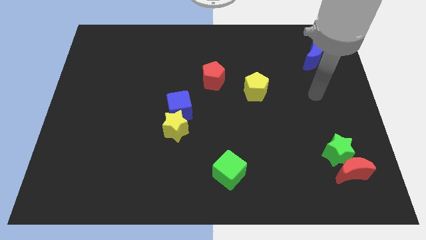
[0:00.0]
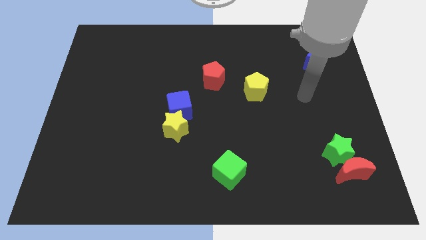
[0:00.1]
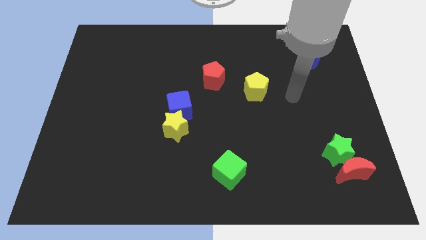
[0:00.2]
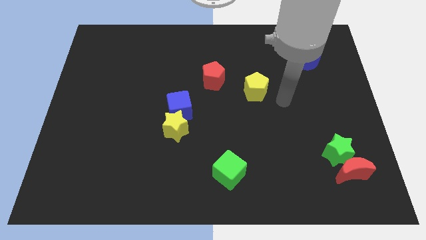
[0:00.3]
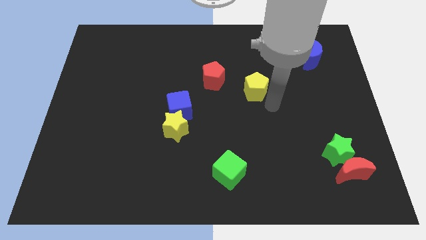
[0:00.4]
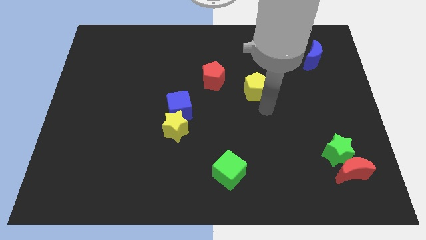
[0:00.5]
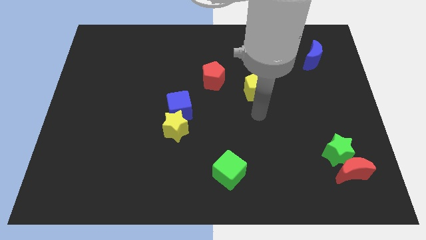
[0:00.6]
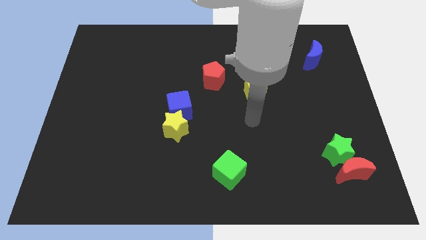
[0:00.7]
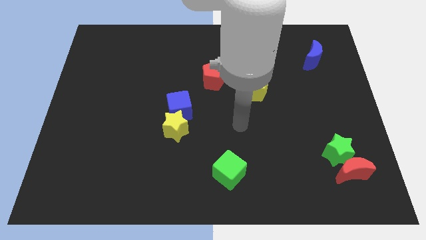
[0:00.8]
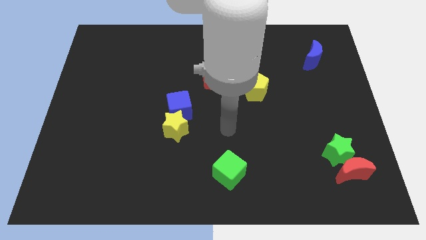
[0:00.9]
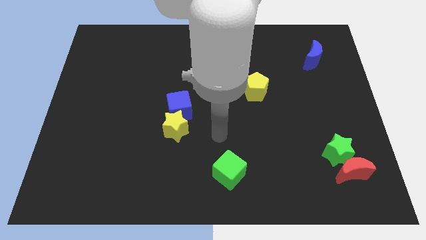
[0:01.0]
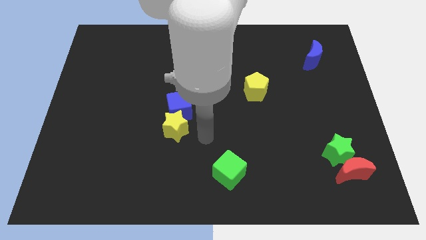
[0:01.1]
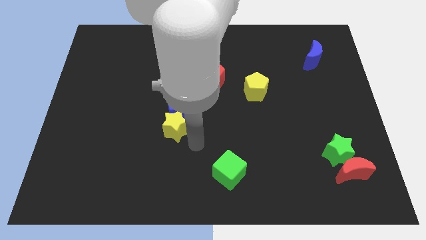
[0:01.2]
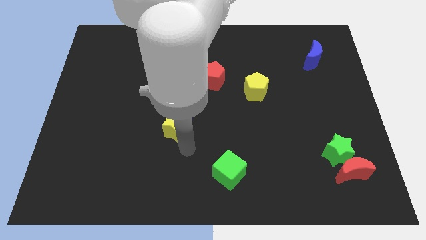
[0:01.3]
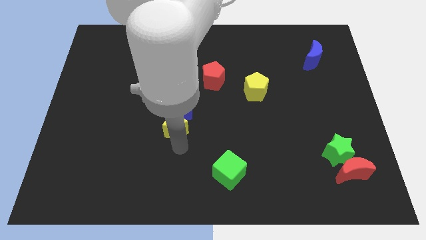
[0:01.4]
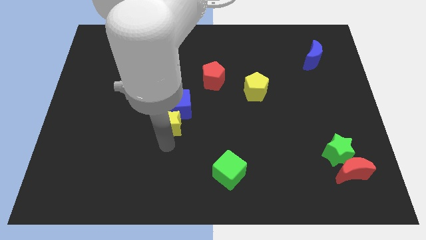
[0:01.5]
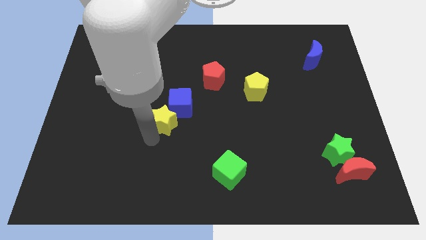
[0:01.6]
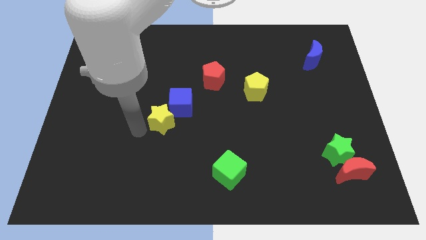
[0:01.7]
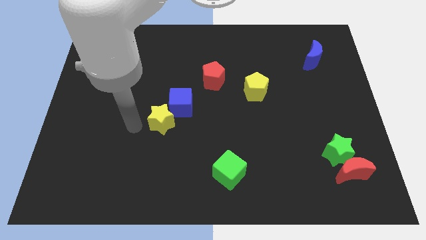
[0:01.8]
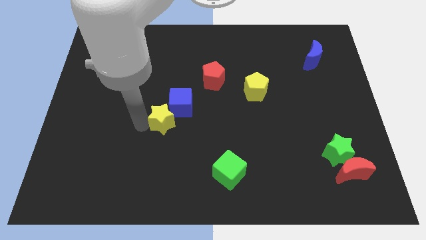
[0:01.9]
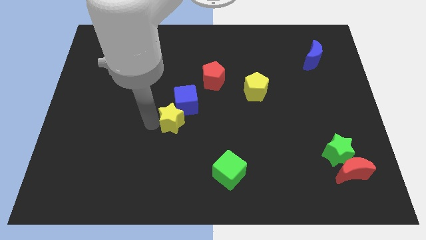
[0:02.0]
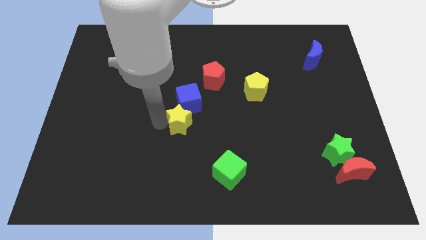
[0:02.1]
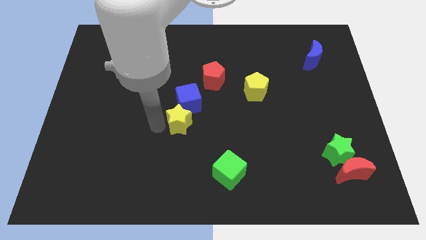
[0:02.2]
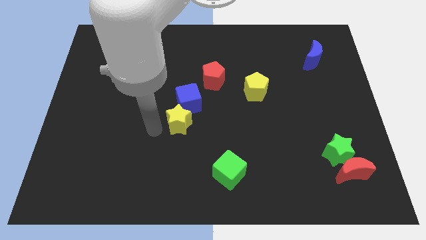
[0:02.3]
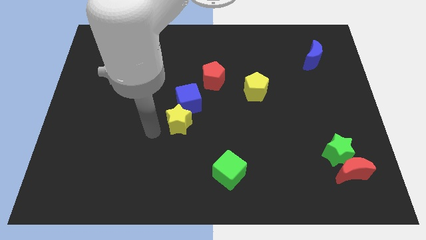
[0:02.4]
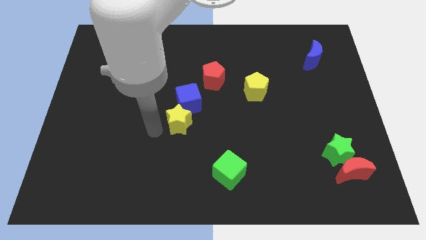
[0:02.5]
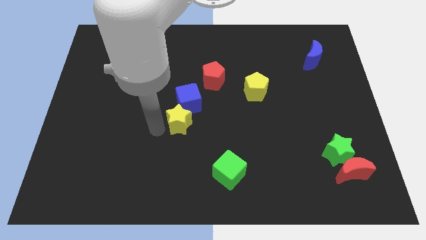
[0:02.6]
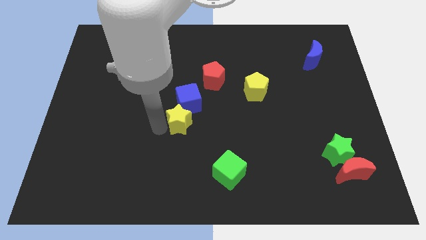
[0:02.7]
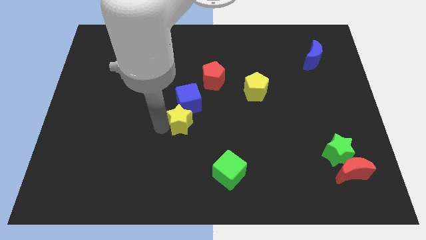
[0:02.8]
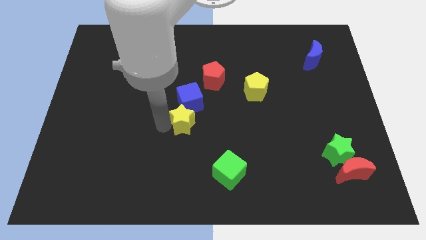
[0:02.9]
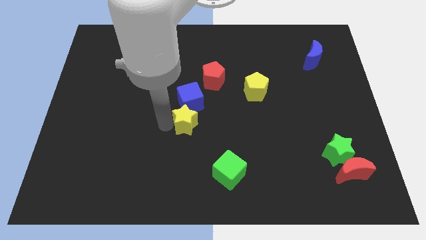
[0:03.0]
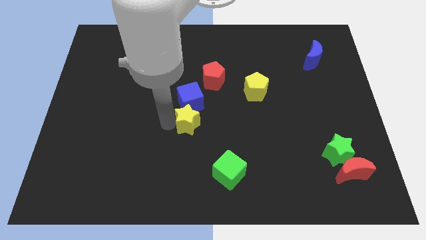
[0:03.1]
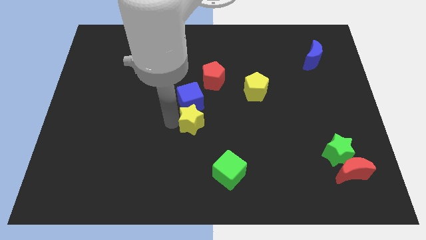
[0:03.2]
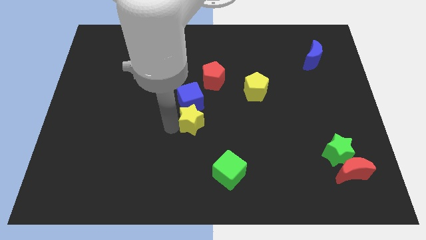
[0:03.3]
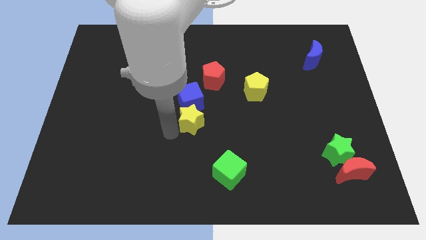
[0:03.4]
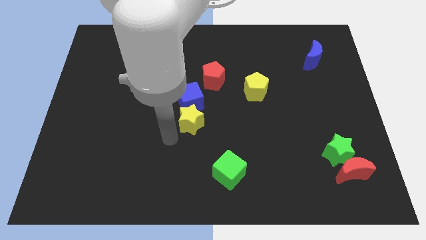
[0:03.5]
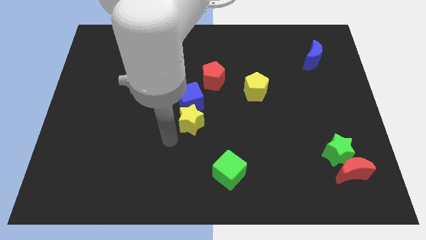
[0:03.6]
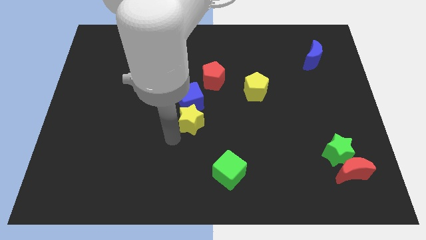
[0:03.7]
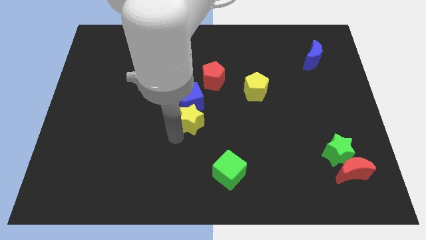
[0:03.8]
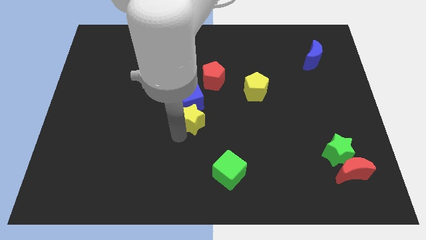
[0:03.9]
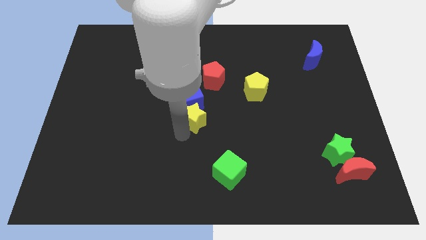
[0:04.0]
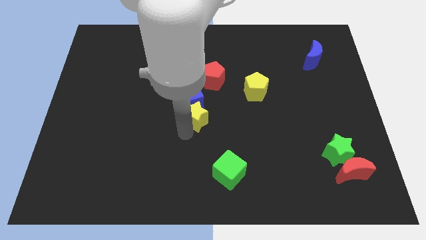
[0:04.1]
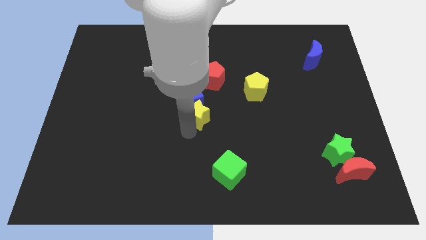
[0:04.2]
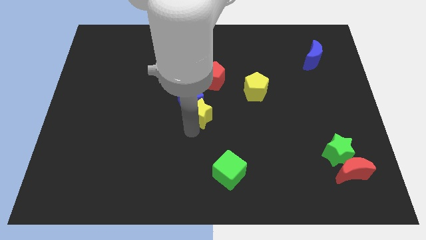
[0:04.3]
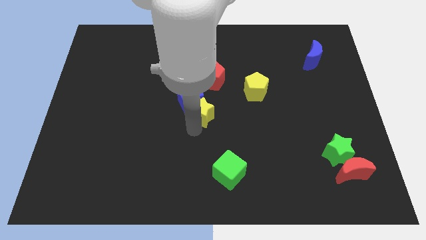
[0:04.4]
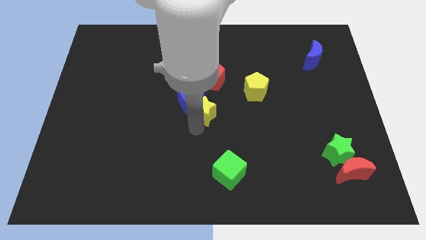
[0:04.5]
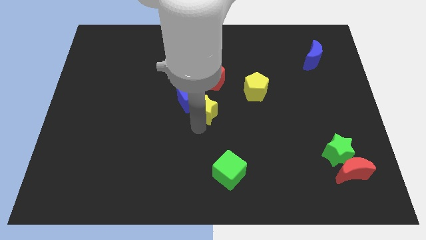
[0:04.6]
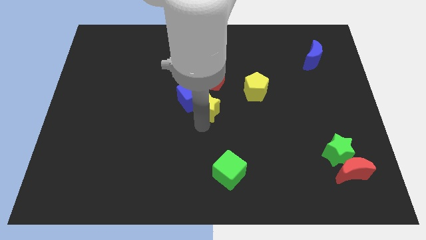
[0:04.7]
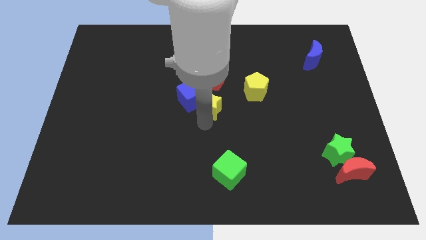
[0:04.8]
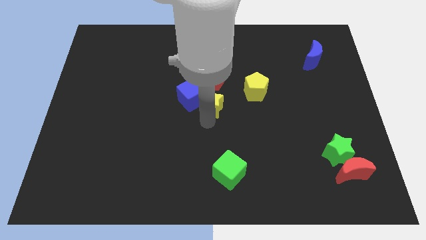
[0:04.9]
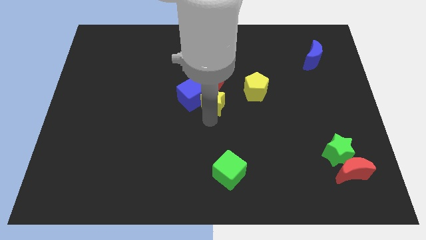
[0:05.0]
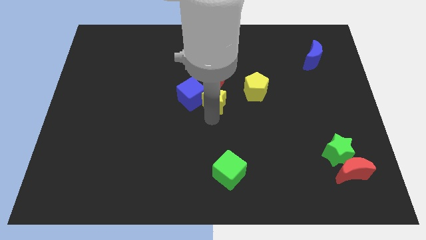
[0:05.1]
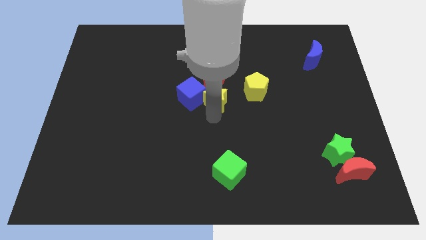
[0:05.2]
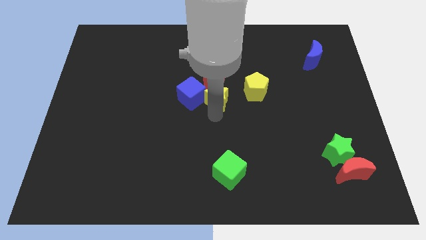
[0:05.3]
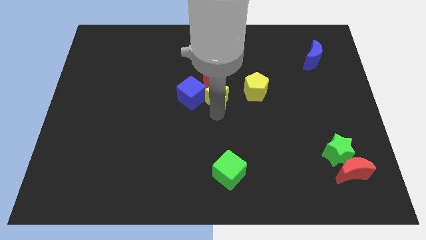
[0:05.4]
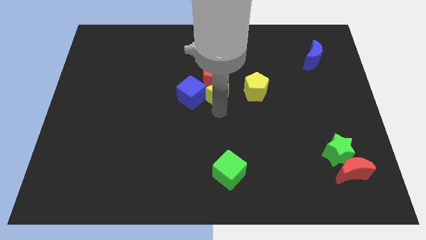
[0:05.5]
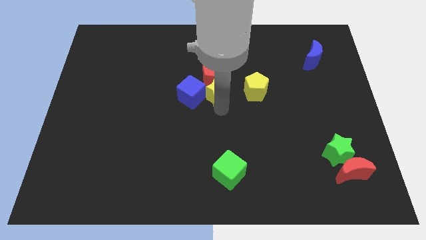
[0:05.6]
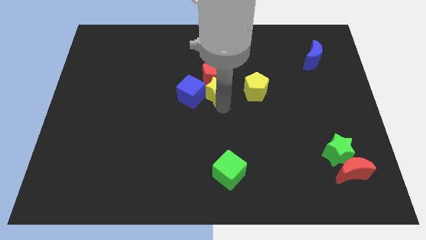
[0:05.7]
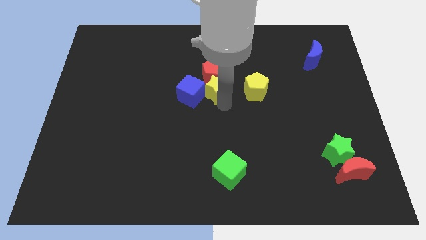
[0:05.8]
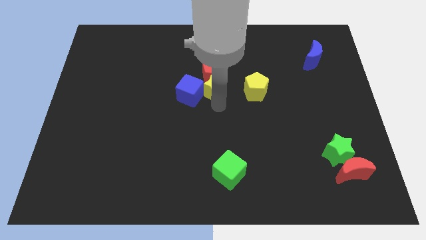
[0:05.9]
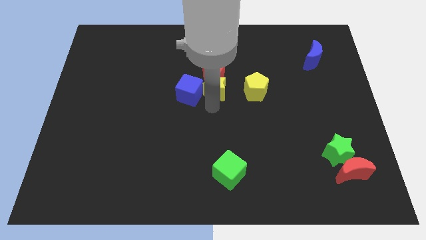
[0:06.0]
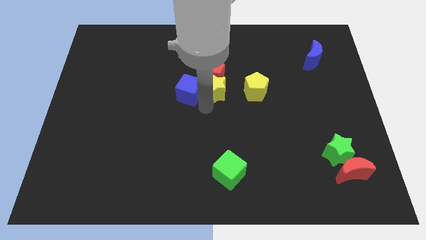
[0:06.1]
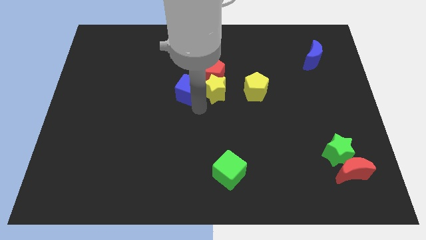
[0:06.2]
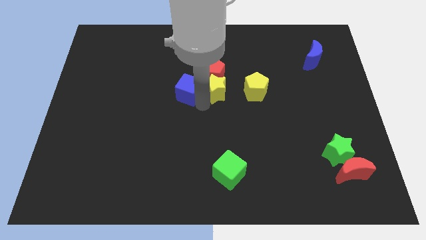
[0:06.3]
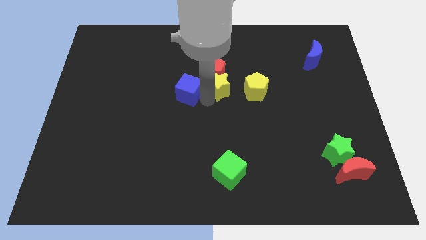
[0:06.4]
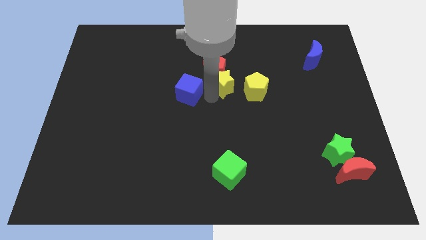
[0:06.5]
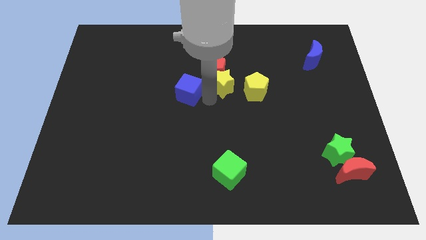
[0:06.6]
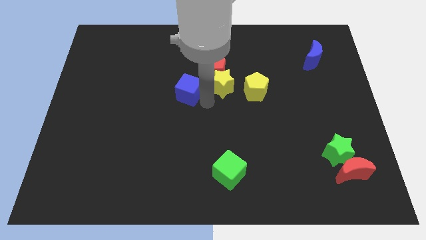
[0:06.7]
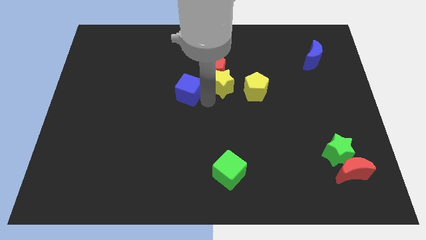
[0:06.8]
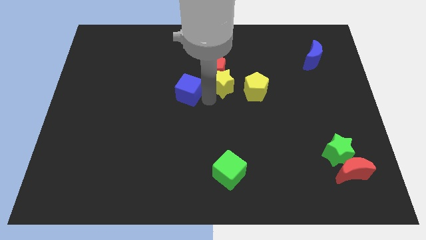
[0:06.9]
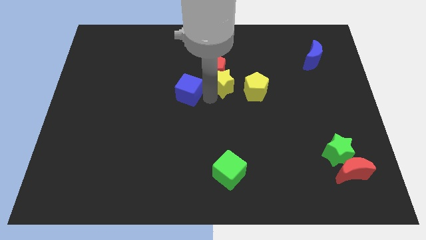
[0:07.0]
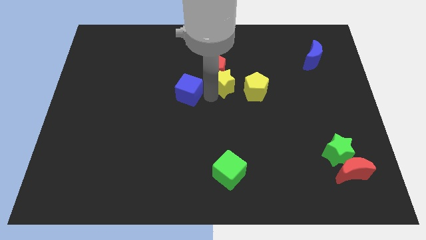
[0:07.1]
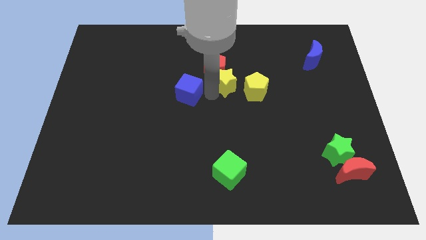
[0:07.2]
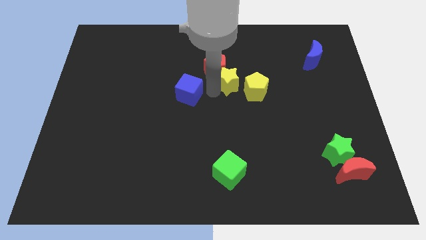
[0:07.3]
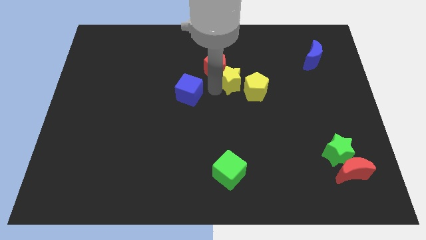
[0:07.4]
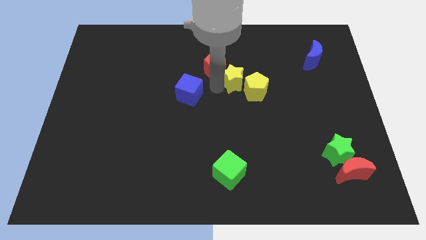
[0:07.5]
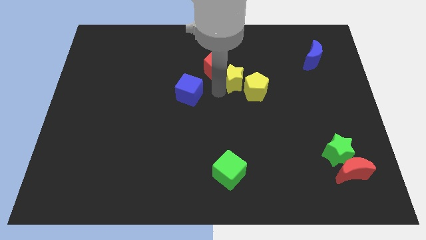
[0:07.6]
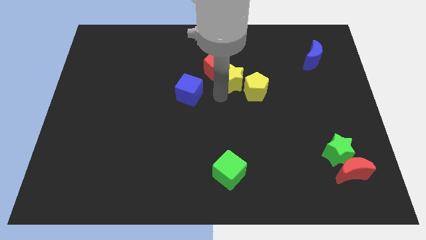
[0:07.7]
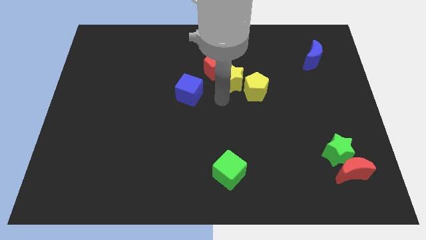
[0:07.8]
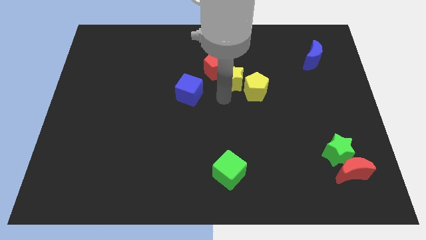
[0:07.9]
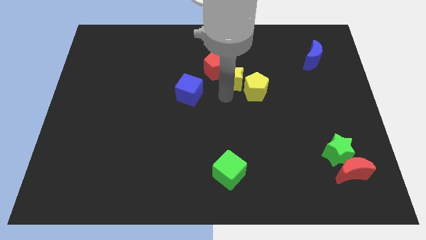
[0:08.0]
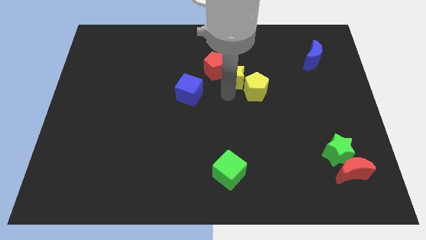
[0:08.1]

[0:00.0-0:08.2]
push the yellow star upwards and then to the right
